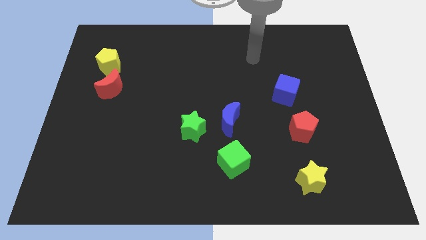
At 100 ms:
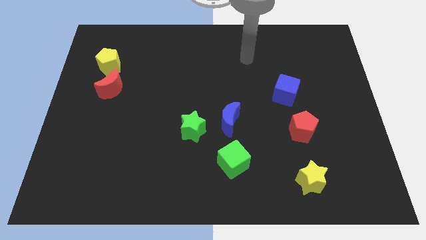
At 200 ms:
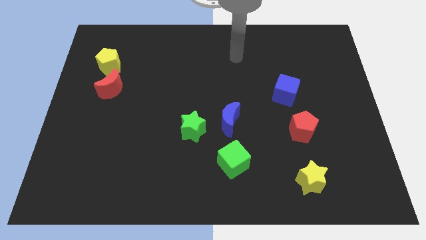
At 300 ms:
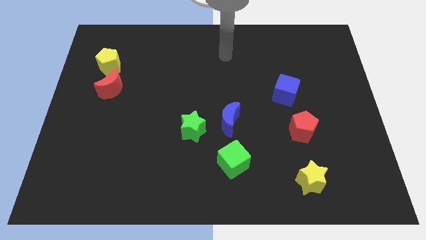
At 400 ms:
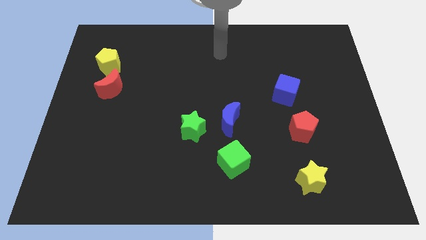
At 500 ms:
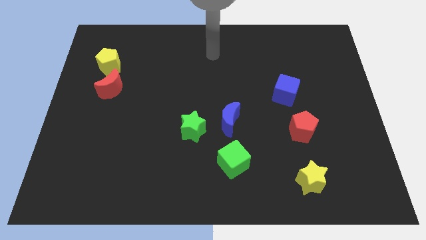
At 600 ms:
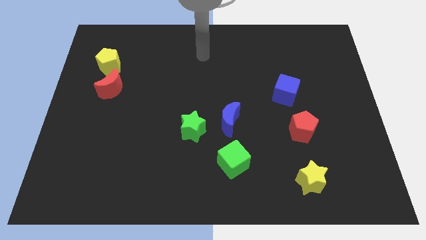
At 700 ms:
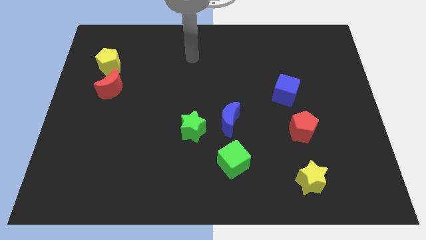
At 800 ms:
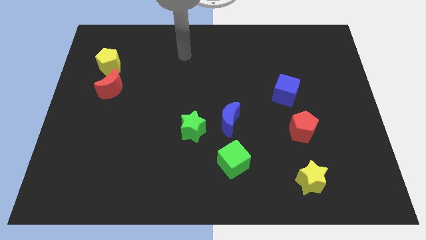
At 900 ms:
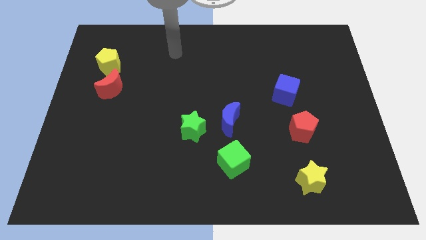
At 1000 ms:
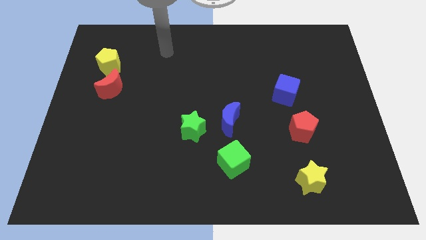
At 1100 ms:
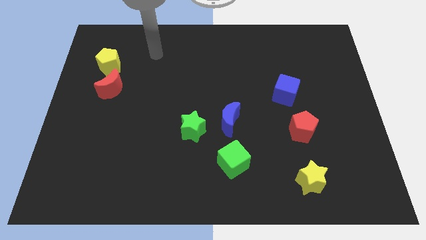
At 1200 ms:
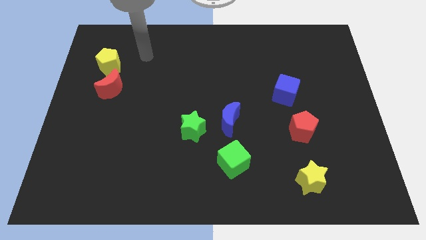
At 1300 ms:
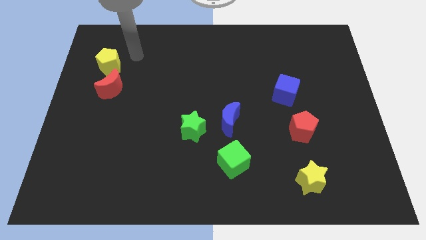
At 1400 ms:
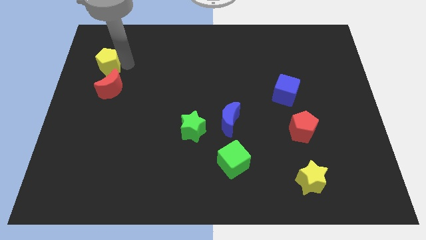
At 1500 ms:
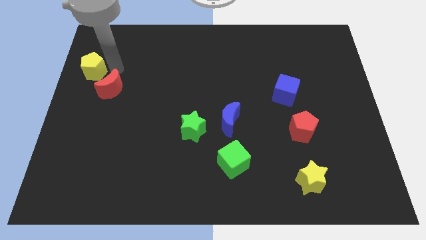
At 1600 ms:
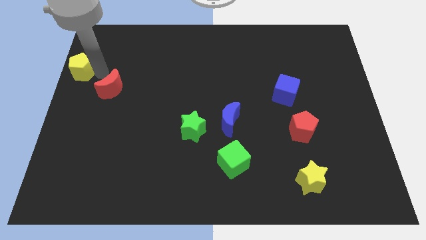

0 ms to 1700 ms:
separate the red moon from the yellow pentagon

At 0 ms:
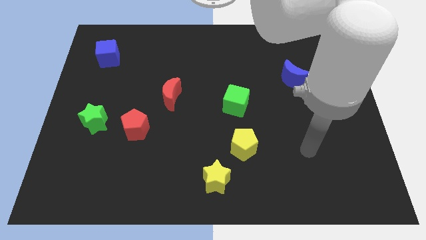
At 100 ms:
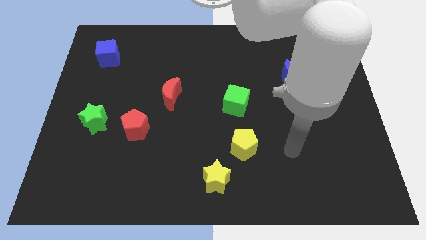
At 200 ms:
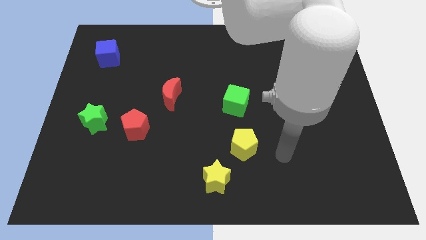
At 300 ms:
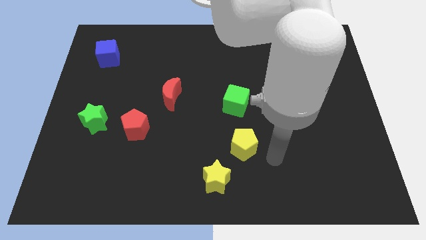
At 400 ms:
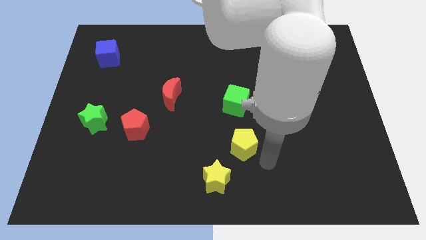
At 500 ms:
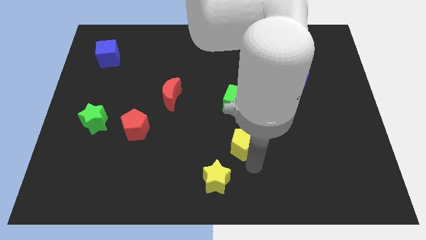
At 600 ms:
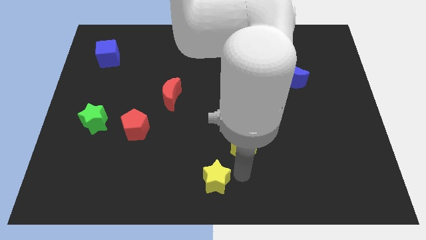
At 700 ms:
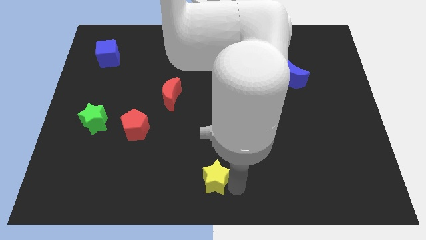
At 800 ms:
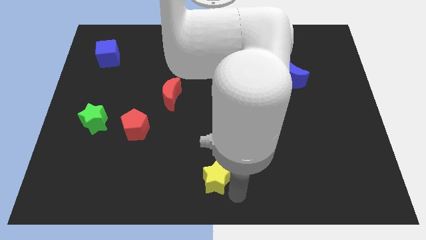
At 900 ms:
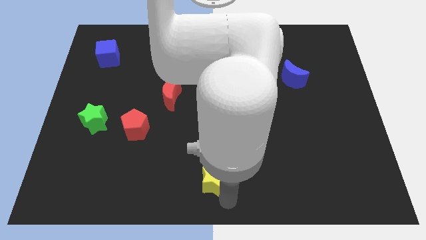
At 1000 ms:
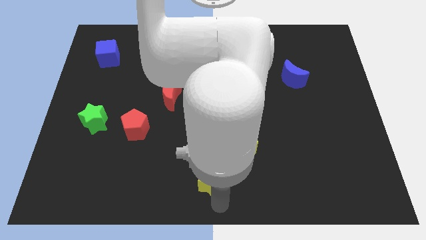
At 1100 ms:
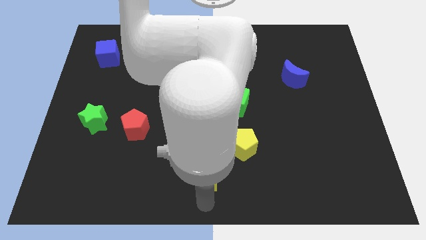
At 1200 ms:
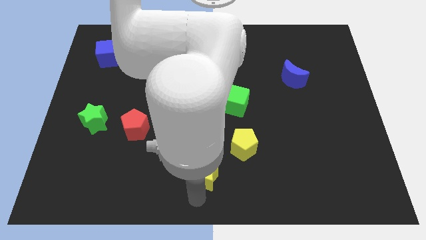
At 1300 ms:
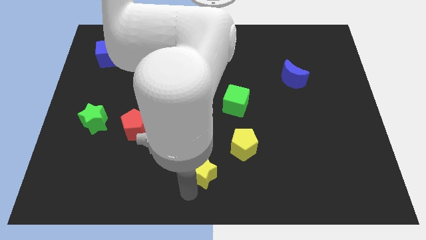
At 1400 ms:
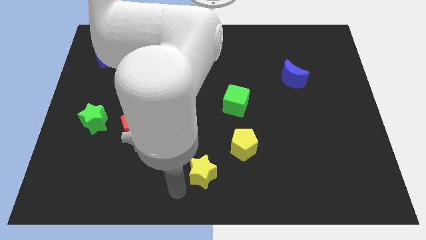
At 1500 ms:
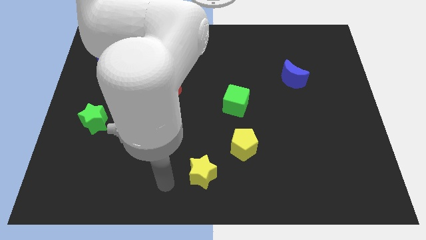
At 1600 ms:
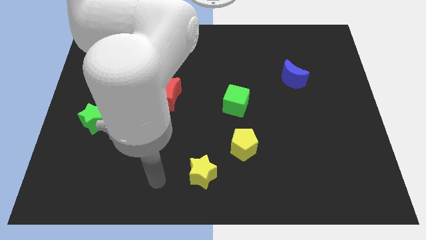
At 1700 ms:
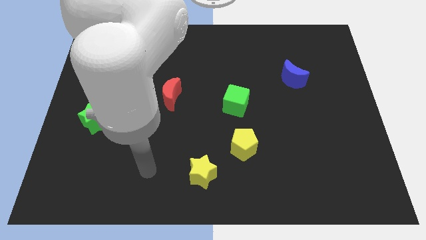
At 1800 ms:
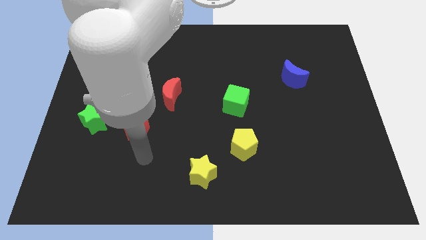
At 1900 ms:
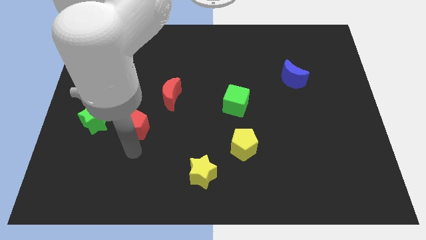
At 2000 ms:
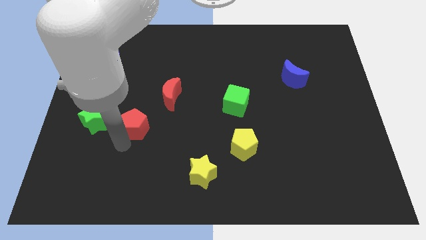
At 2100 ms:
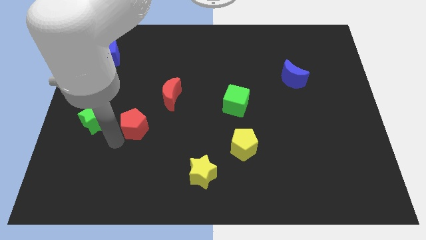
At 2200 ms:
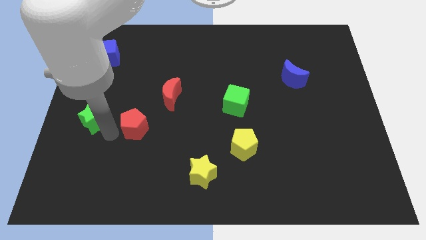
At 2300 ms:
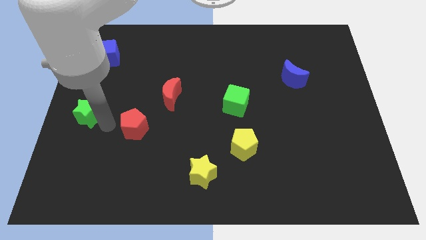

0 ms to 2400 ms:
move the red pentagon away from the green star

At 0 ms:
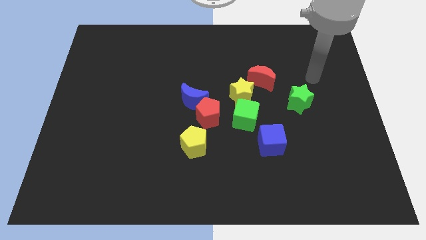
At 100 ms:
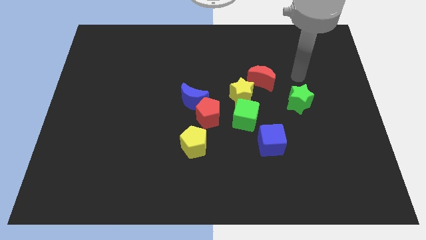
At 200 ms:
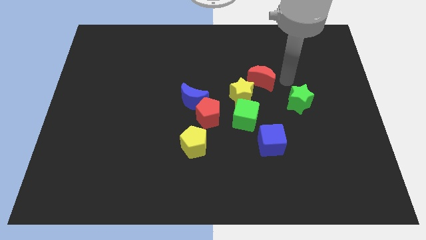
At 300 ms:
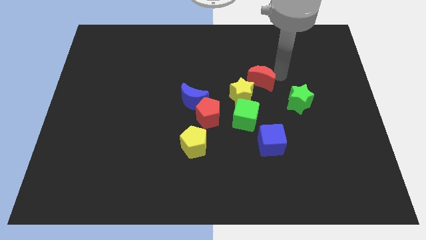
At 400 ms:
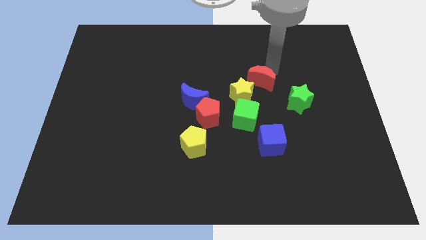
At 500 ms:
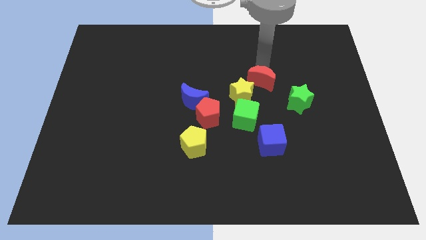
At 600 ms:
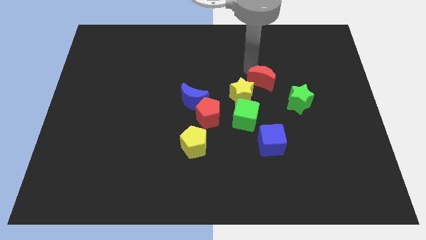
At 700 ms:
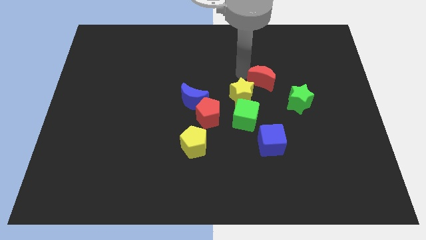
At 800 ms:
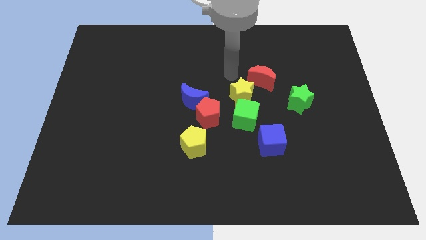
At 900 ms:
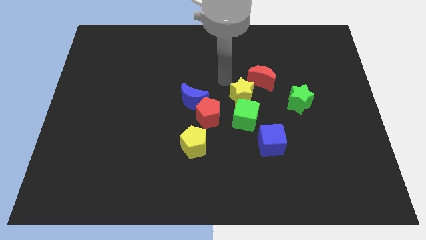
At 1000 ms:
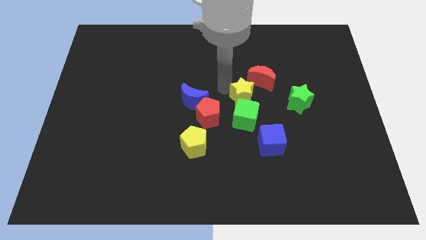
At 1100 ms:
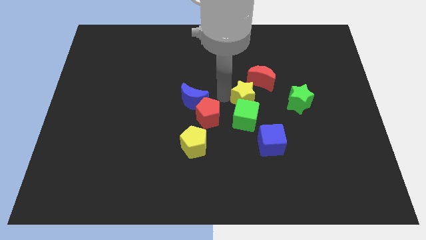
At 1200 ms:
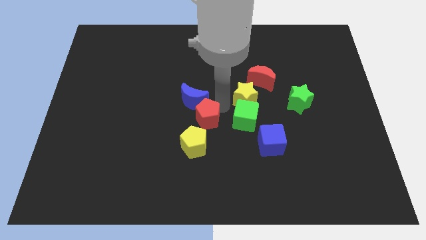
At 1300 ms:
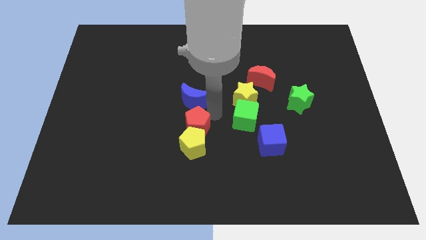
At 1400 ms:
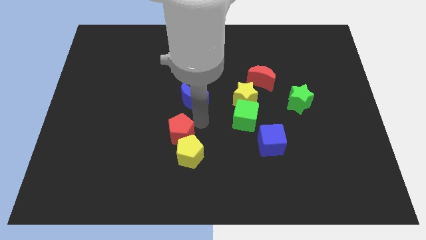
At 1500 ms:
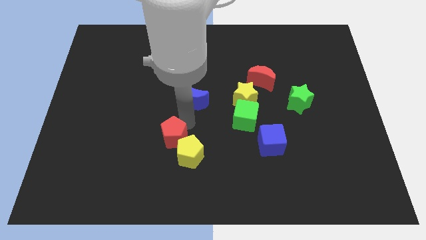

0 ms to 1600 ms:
move the blue moon away from the red pentagon

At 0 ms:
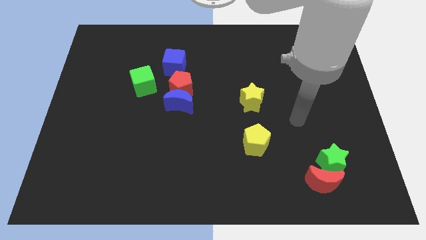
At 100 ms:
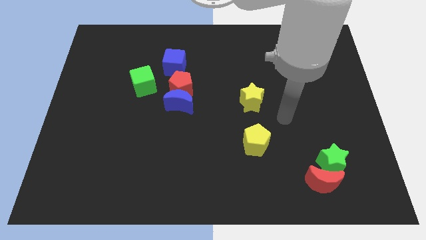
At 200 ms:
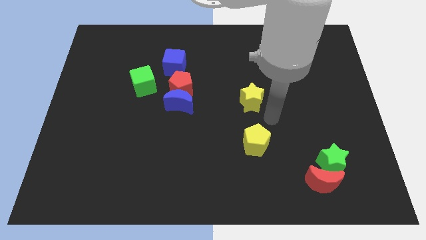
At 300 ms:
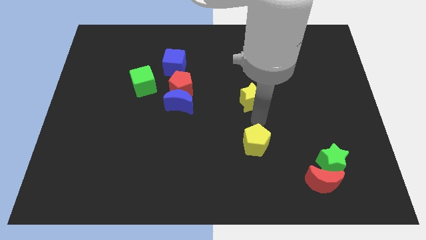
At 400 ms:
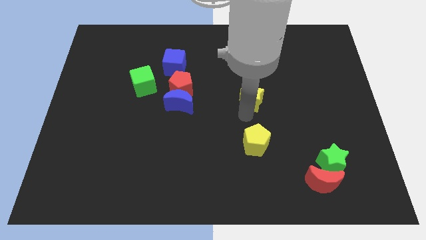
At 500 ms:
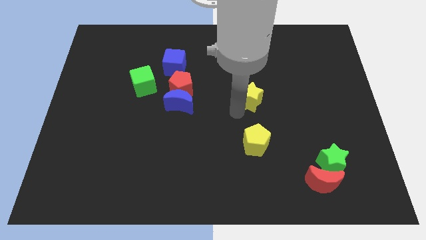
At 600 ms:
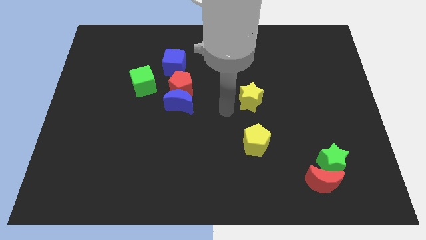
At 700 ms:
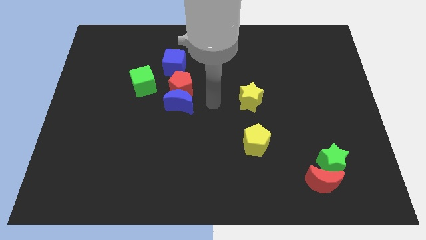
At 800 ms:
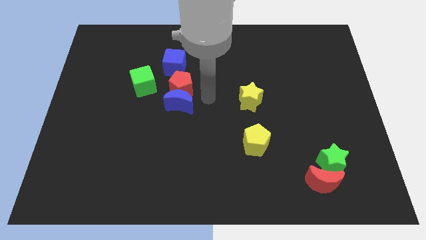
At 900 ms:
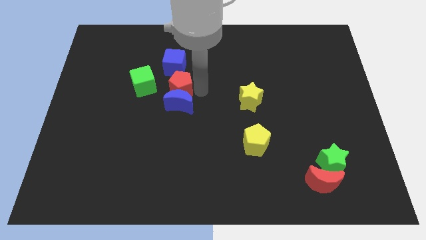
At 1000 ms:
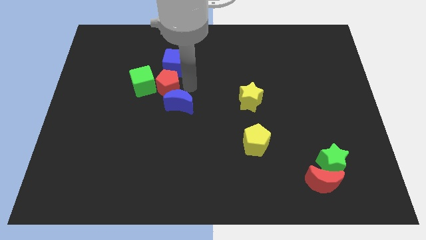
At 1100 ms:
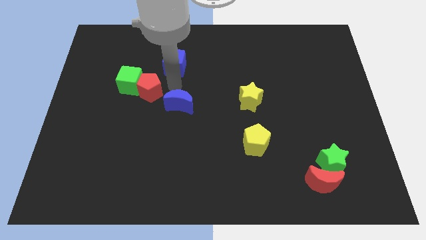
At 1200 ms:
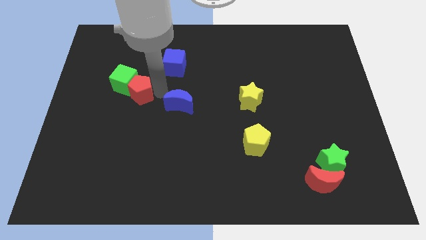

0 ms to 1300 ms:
pull the blue moon apart from the red pentagon

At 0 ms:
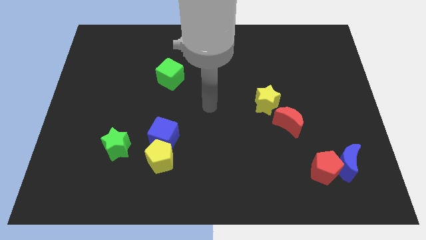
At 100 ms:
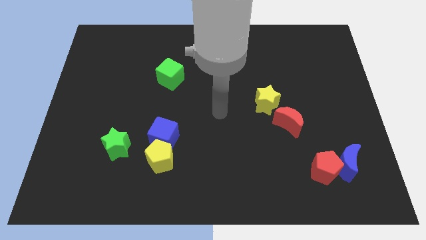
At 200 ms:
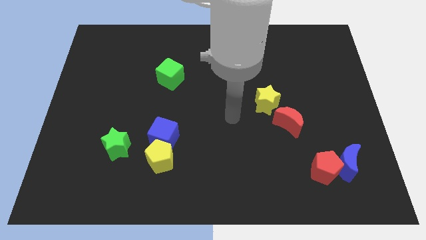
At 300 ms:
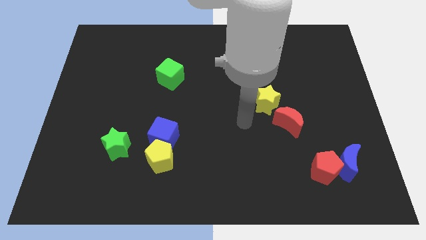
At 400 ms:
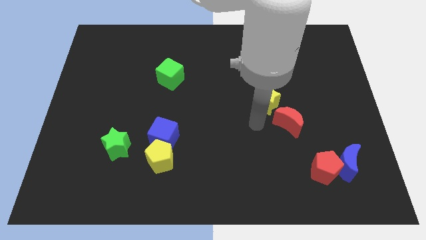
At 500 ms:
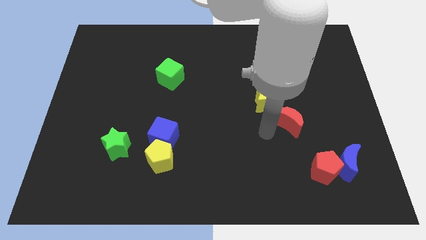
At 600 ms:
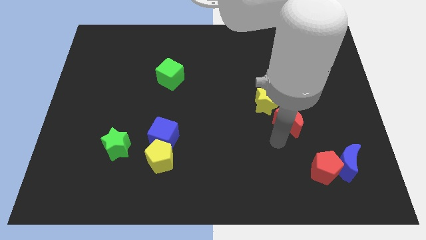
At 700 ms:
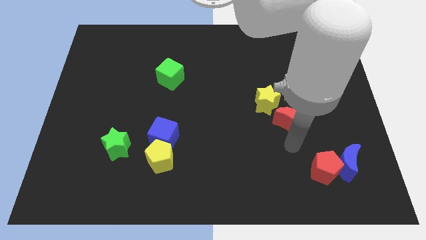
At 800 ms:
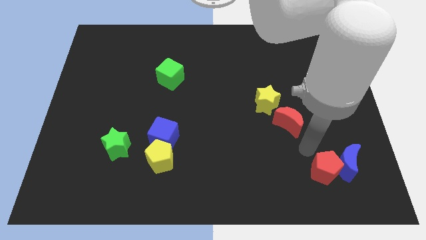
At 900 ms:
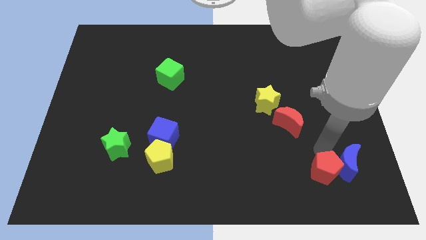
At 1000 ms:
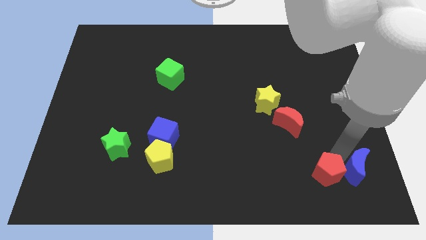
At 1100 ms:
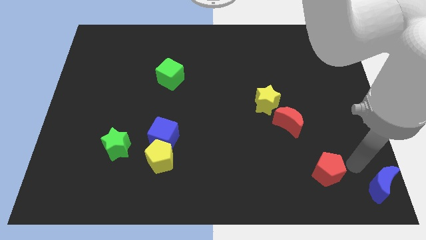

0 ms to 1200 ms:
pull the red pentagon apart from the blue moon

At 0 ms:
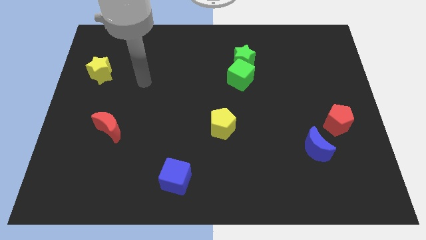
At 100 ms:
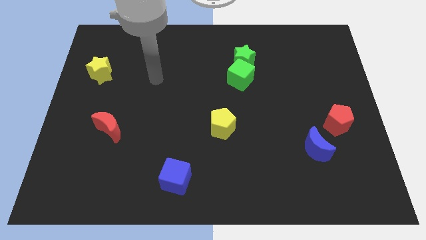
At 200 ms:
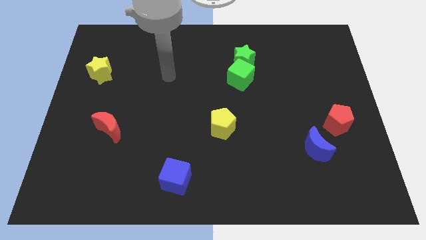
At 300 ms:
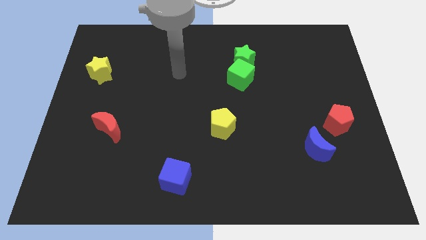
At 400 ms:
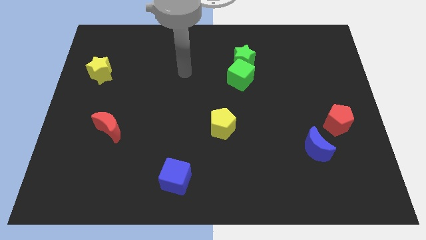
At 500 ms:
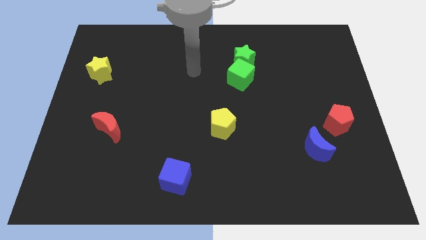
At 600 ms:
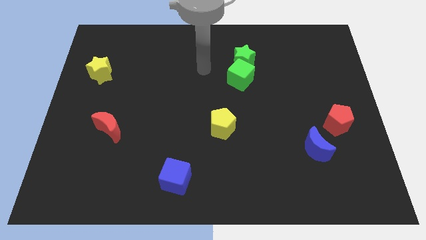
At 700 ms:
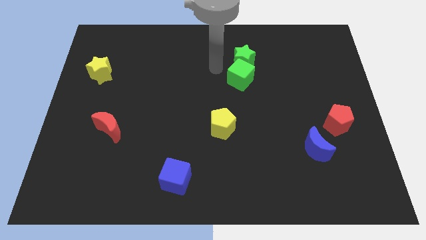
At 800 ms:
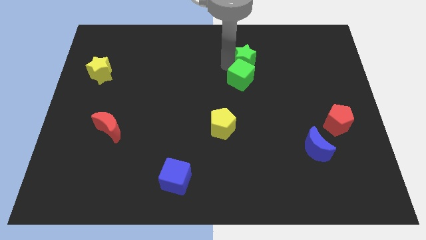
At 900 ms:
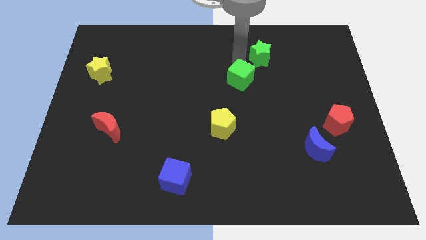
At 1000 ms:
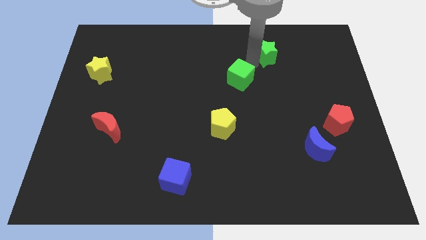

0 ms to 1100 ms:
move the green cube away from the green star
